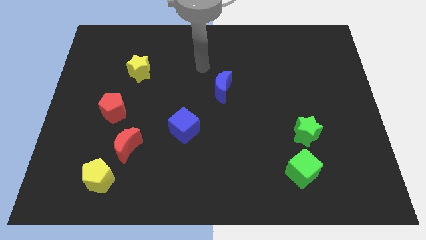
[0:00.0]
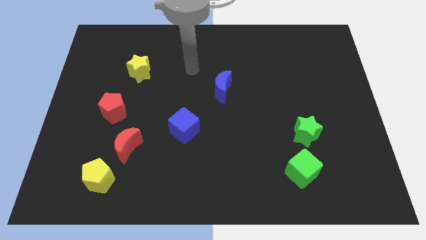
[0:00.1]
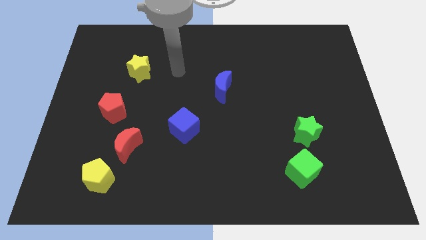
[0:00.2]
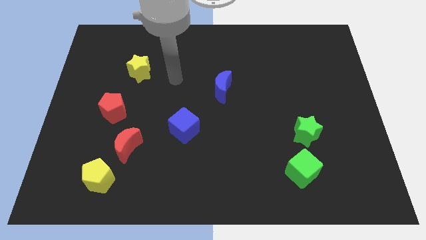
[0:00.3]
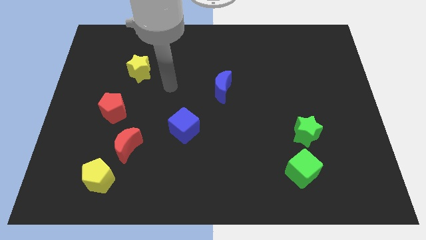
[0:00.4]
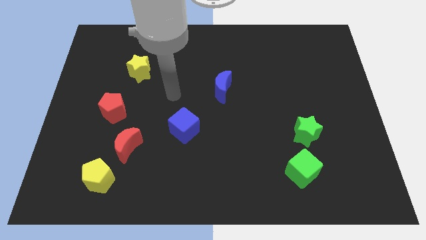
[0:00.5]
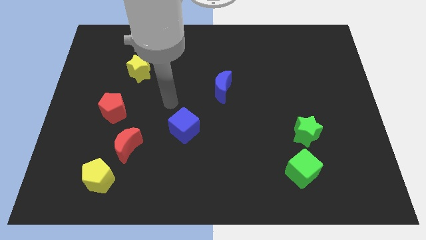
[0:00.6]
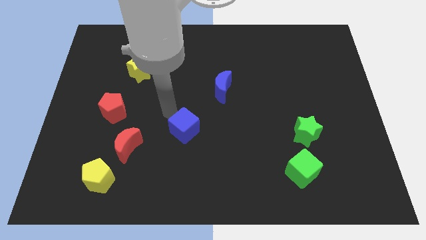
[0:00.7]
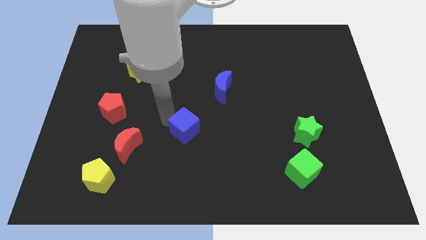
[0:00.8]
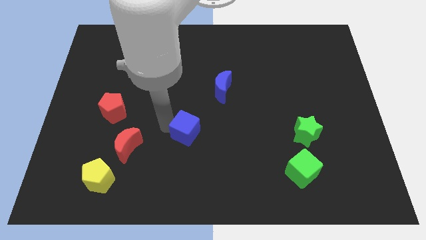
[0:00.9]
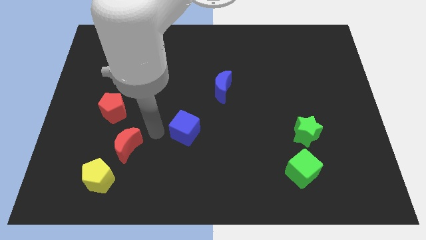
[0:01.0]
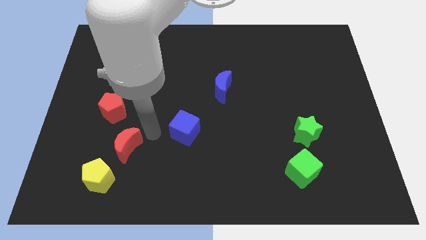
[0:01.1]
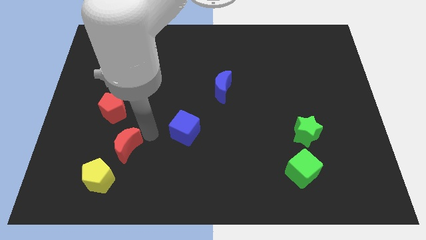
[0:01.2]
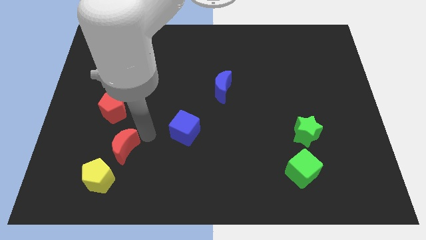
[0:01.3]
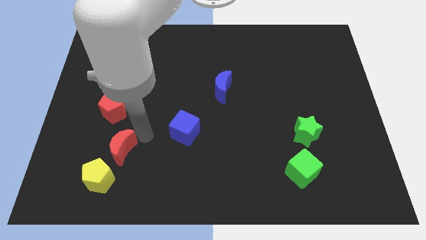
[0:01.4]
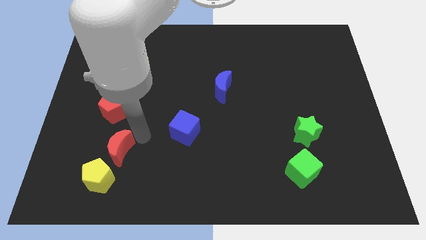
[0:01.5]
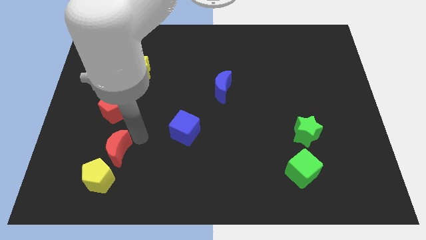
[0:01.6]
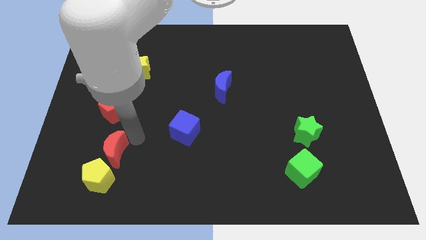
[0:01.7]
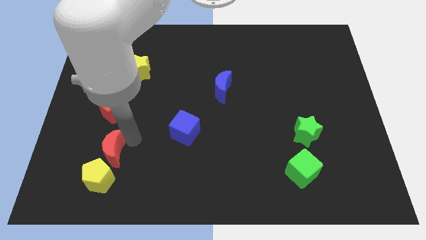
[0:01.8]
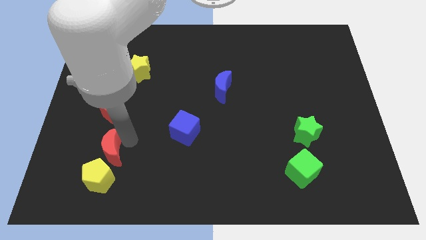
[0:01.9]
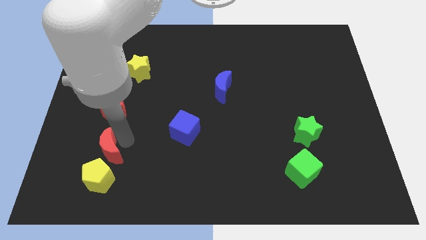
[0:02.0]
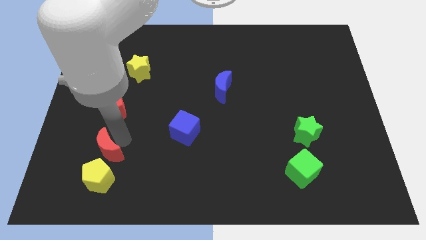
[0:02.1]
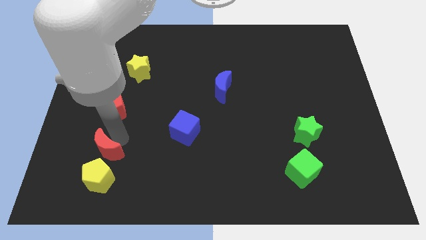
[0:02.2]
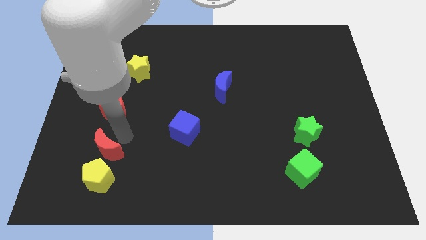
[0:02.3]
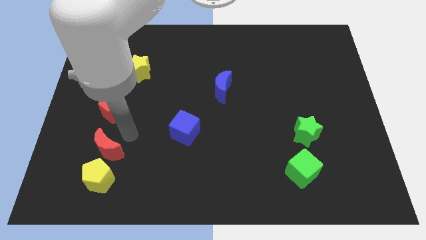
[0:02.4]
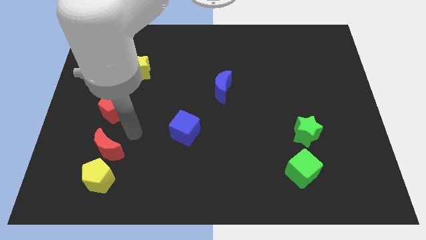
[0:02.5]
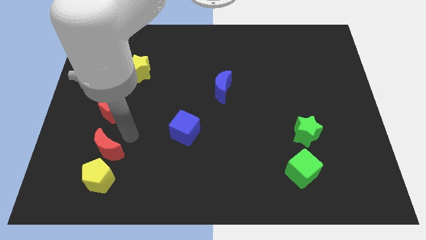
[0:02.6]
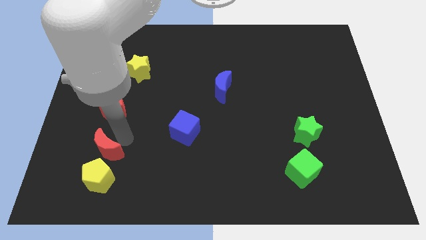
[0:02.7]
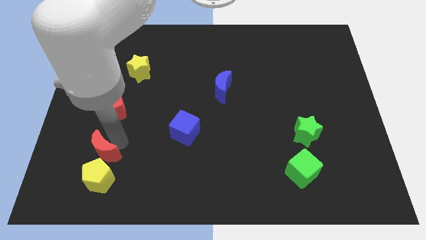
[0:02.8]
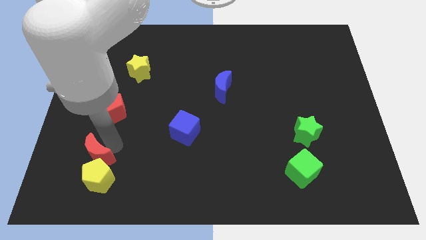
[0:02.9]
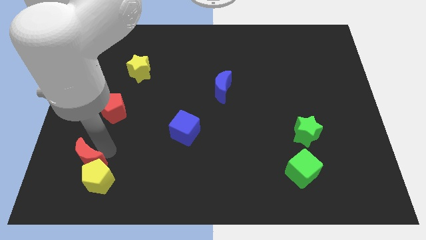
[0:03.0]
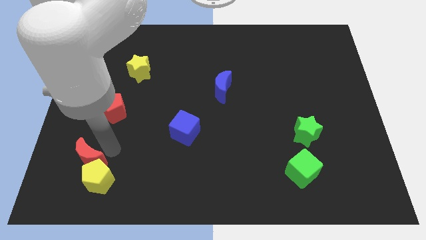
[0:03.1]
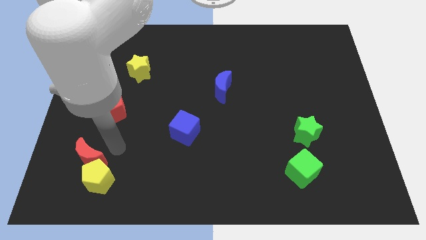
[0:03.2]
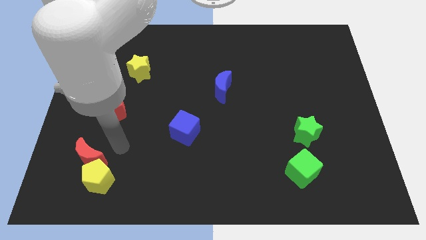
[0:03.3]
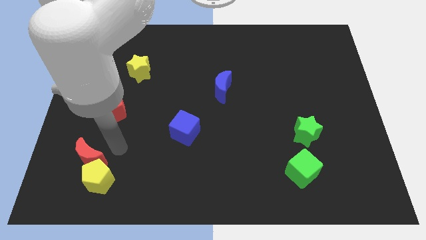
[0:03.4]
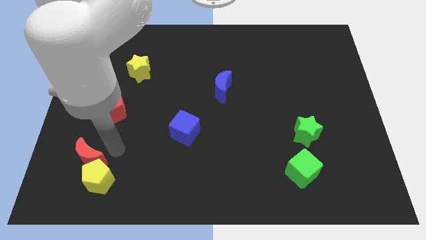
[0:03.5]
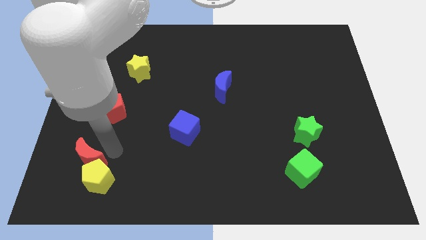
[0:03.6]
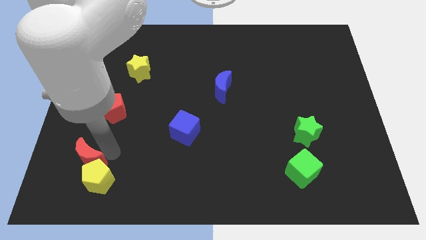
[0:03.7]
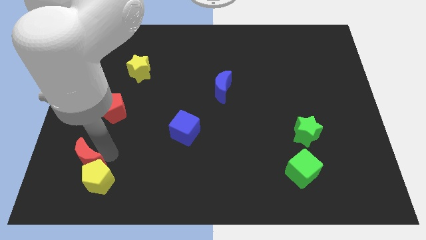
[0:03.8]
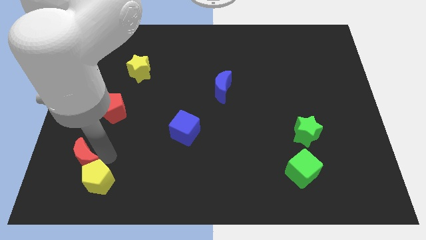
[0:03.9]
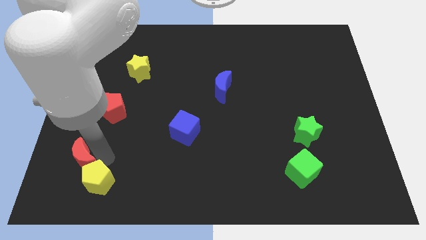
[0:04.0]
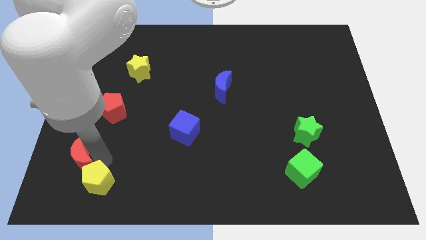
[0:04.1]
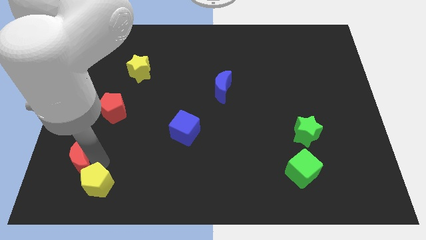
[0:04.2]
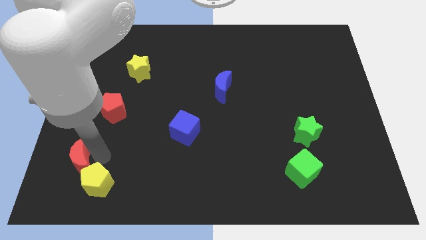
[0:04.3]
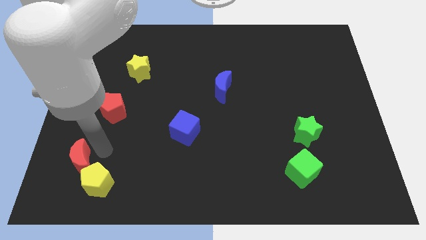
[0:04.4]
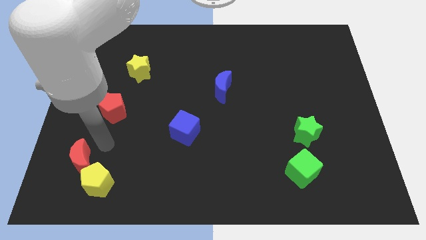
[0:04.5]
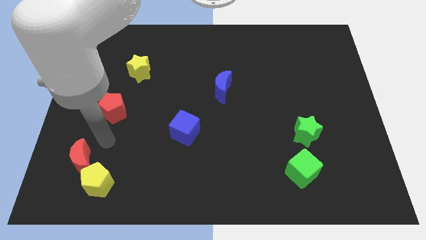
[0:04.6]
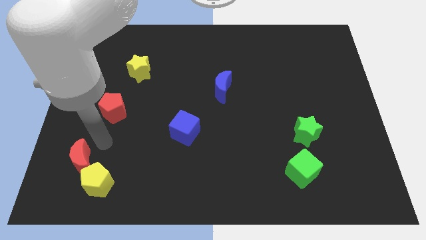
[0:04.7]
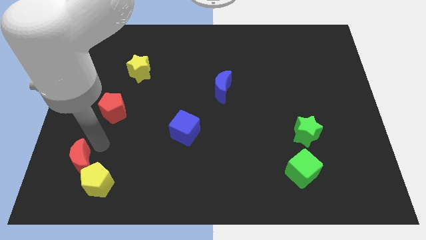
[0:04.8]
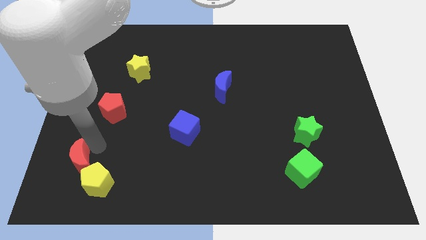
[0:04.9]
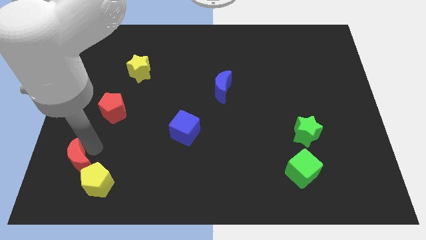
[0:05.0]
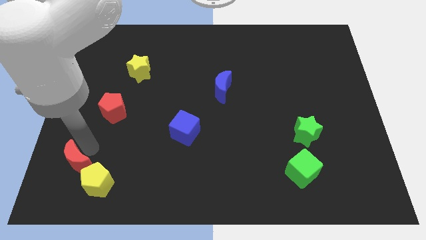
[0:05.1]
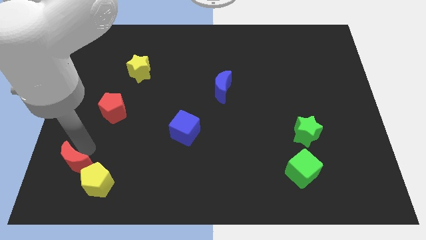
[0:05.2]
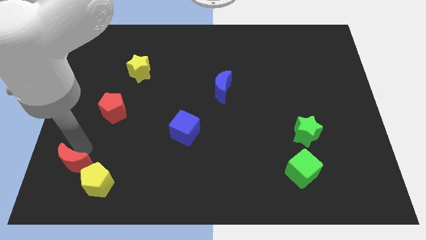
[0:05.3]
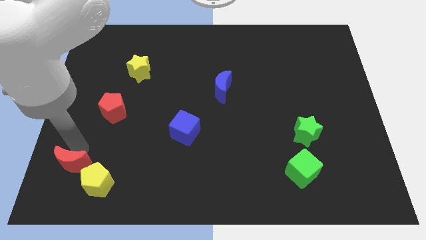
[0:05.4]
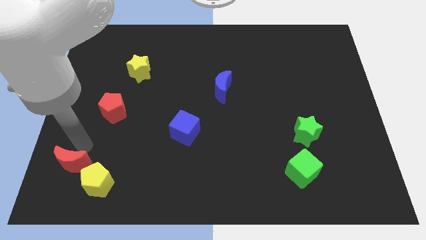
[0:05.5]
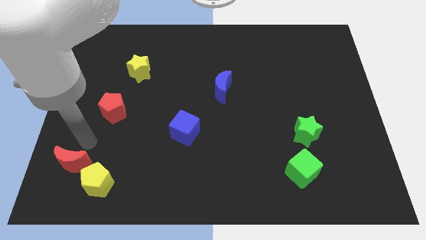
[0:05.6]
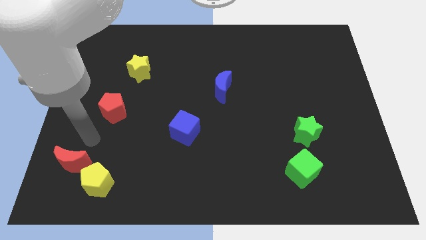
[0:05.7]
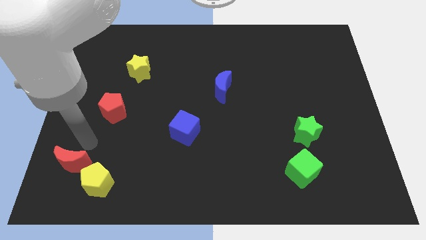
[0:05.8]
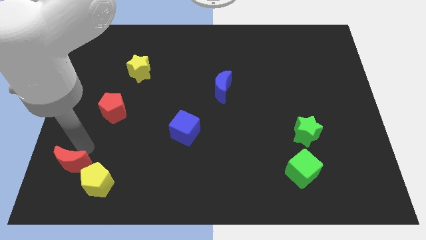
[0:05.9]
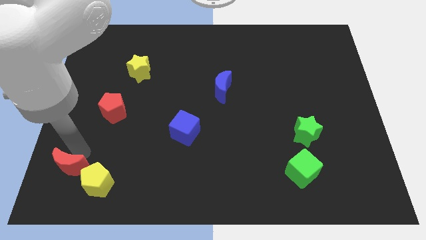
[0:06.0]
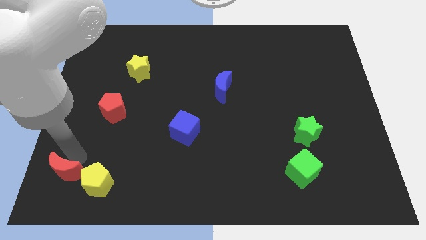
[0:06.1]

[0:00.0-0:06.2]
put the red moon to the bottom left of the board
